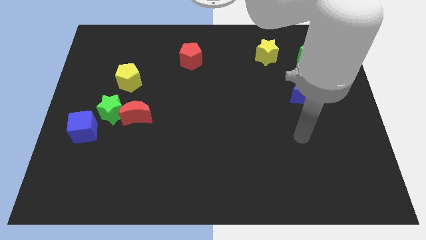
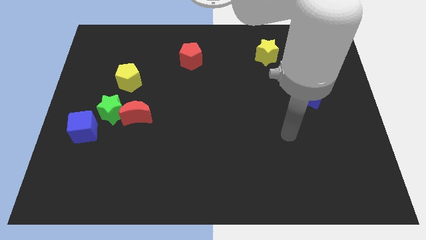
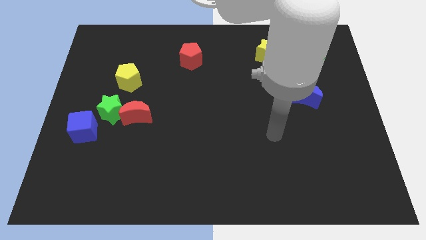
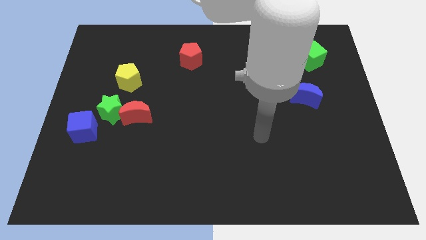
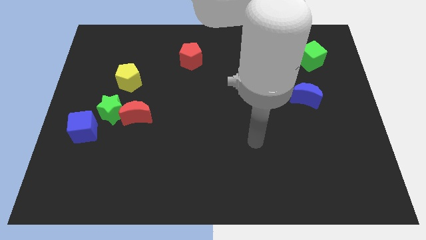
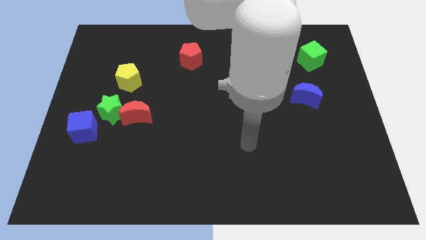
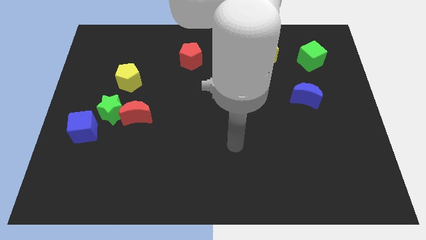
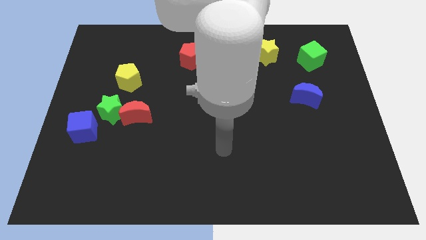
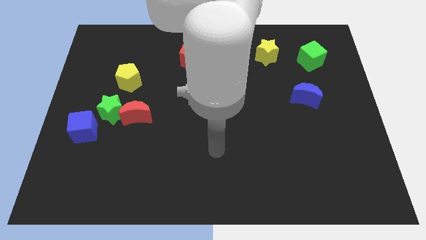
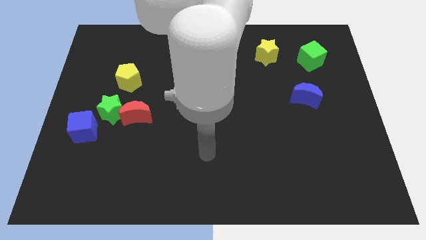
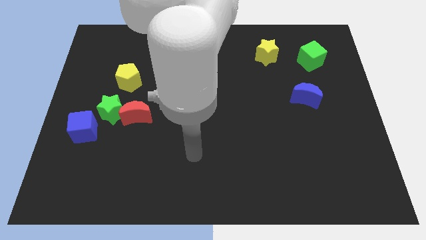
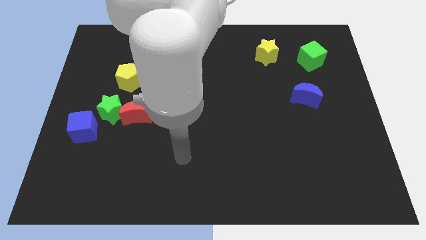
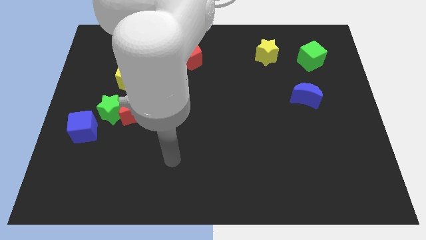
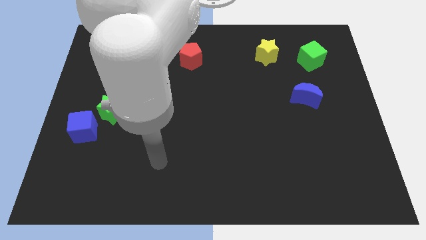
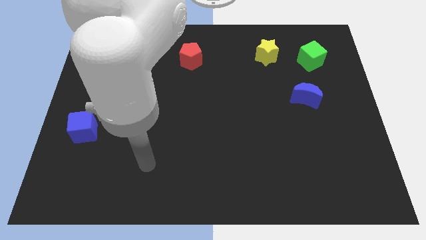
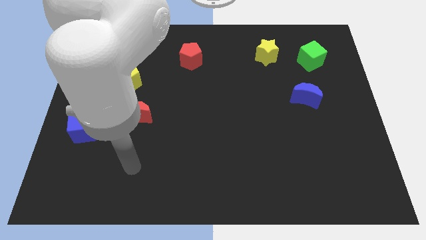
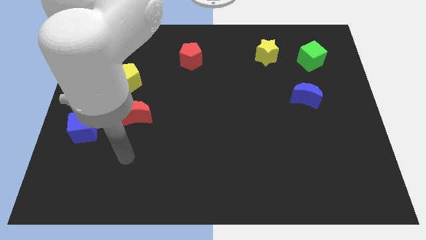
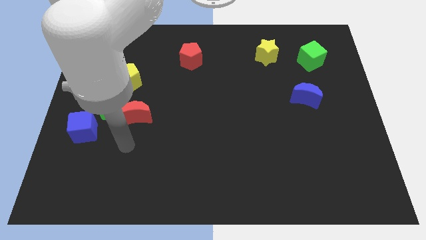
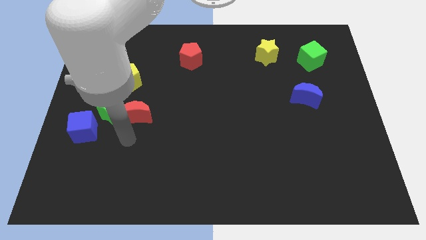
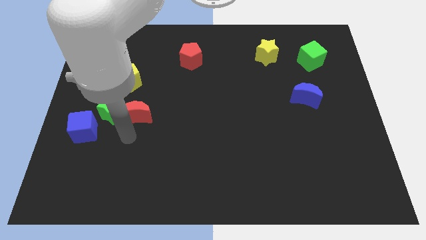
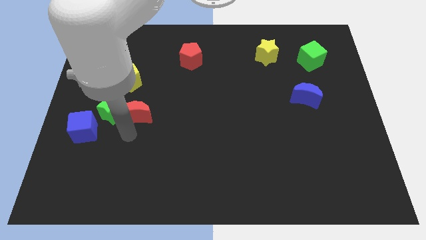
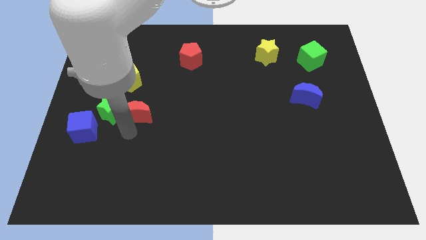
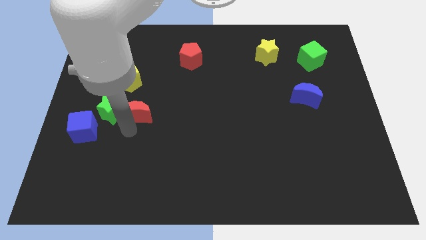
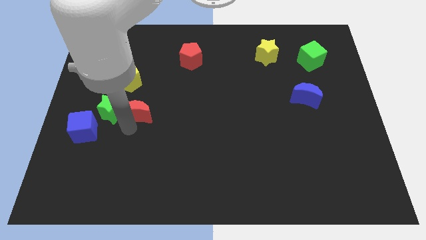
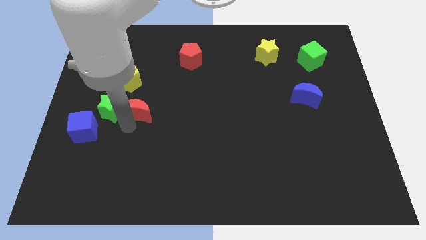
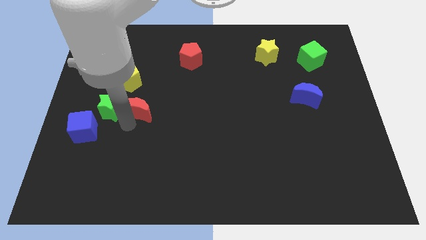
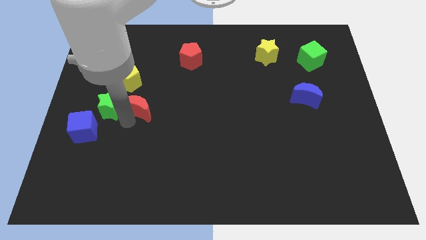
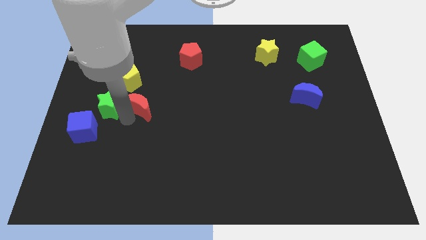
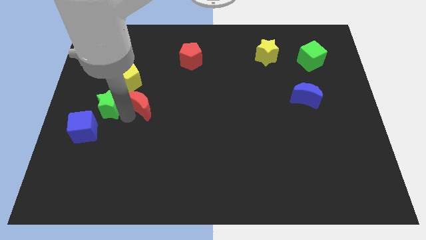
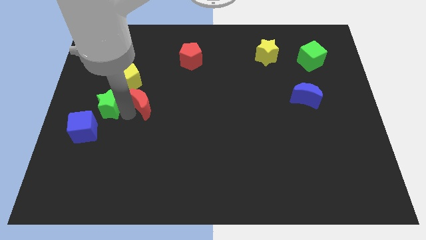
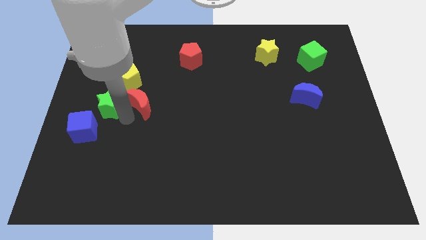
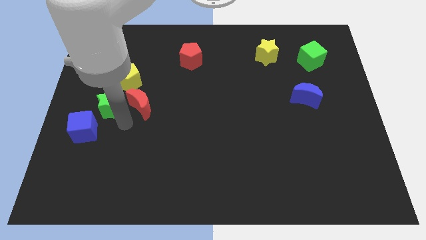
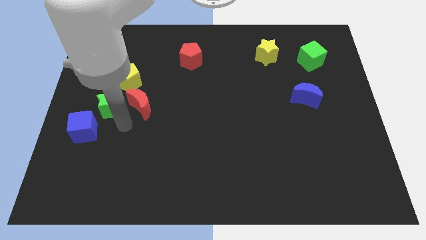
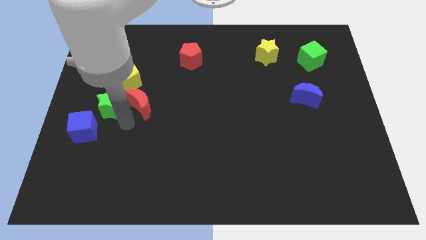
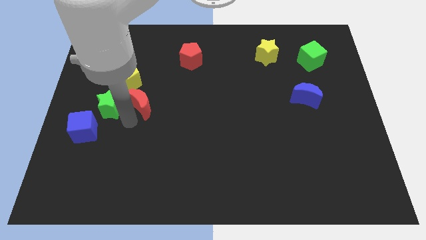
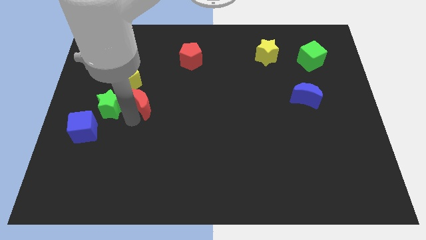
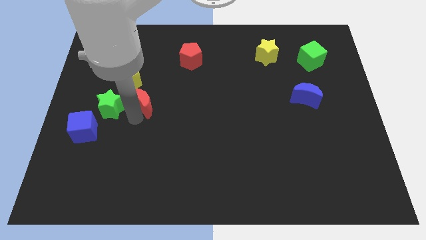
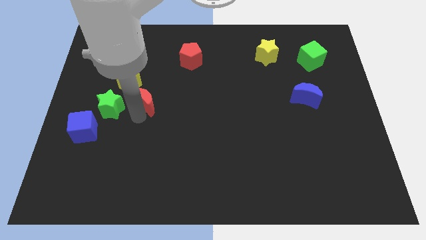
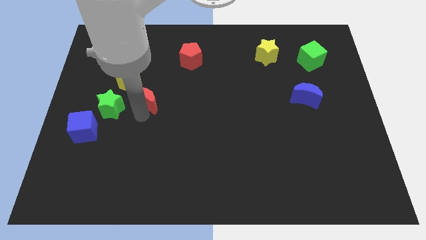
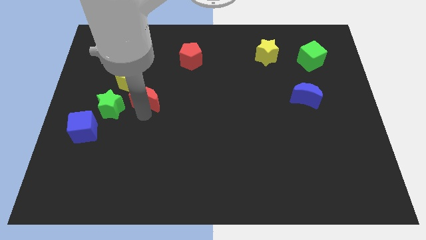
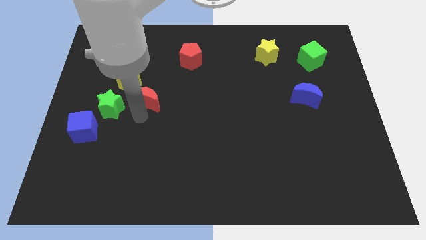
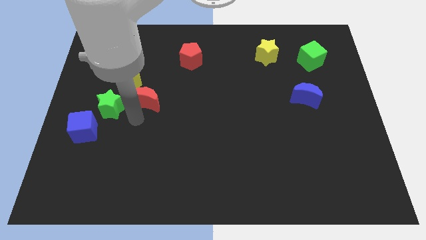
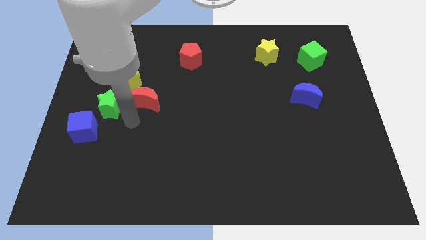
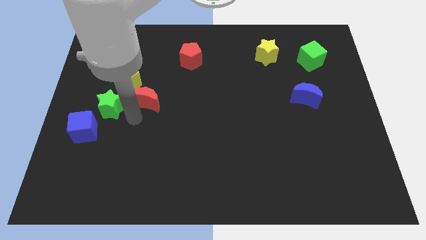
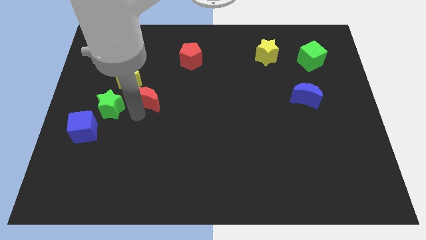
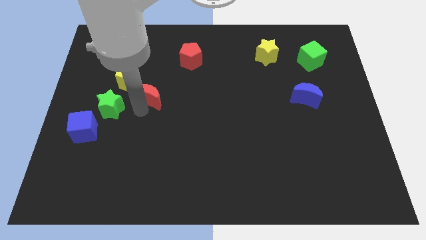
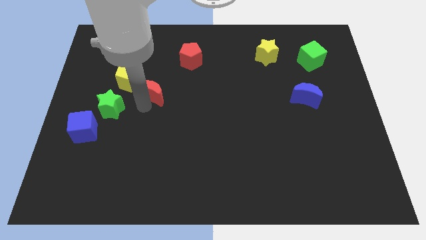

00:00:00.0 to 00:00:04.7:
slide the red moon right of the yellow pentagon

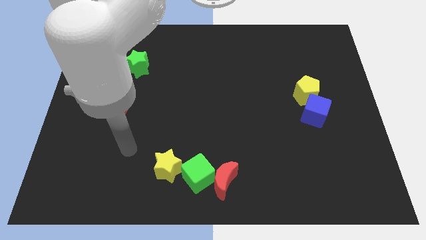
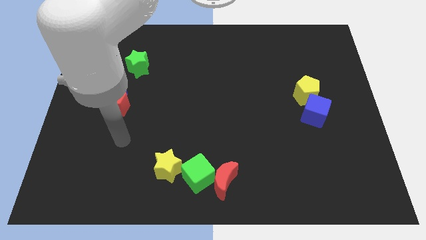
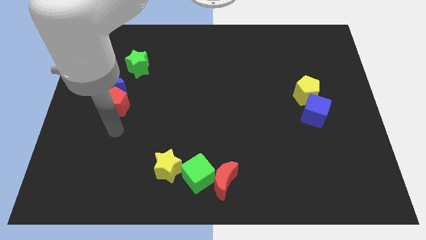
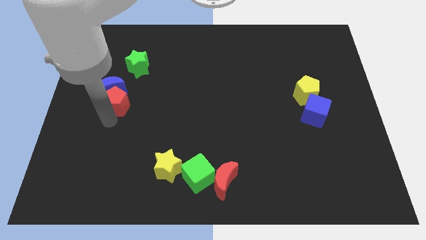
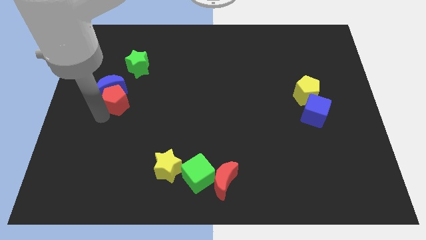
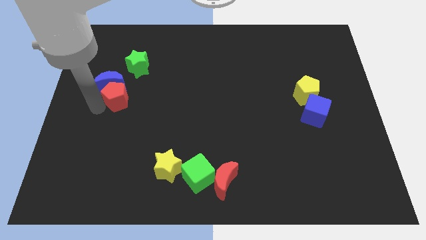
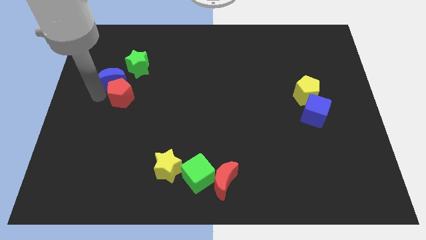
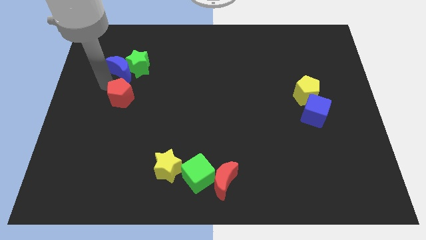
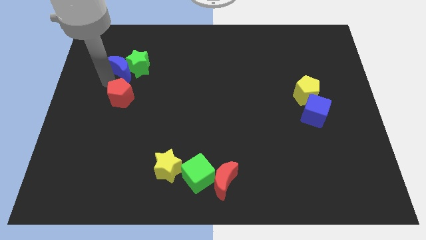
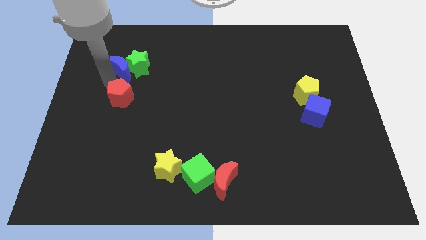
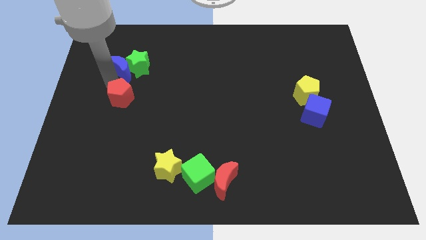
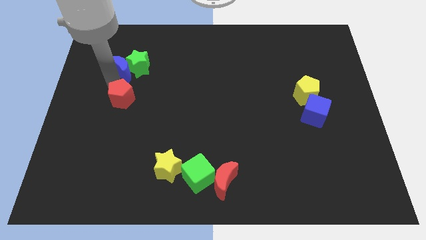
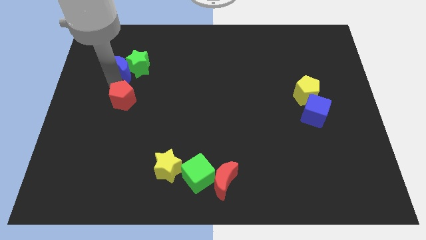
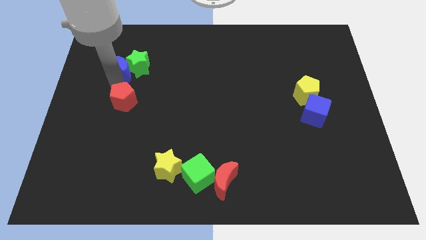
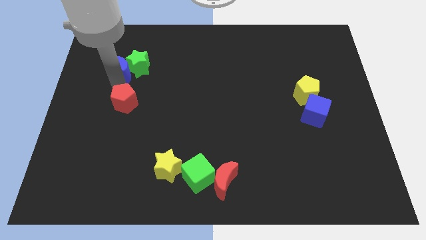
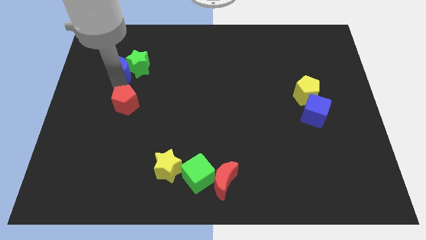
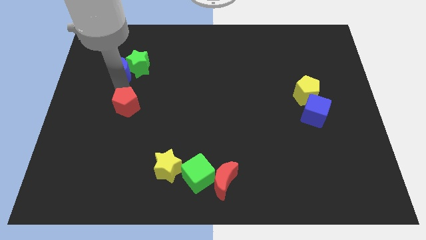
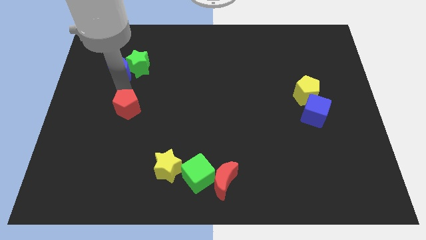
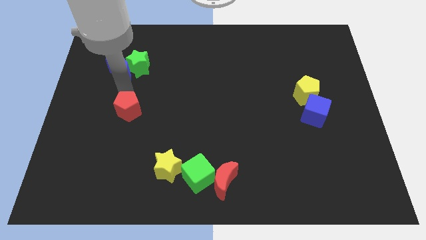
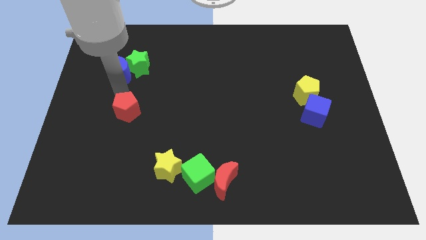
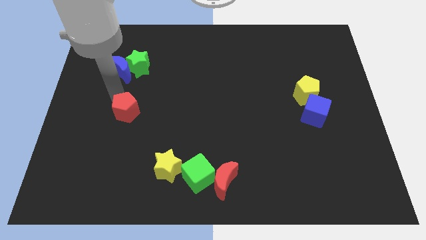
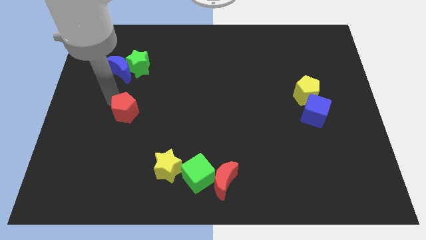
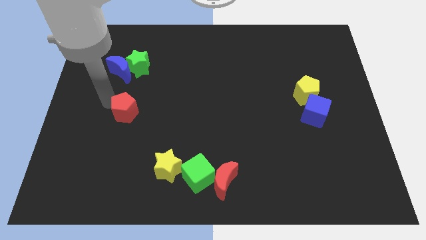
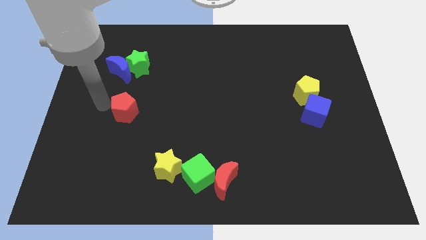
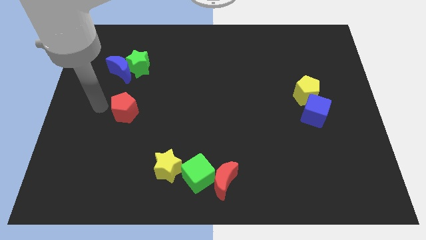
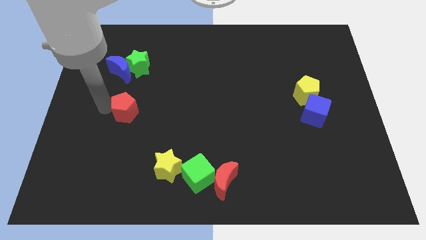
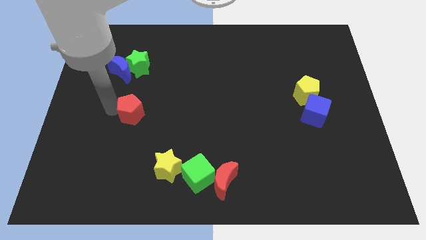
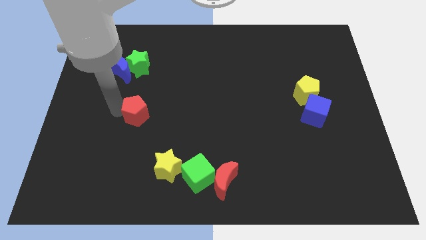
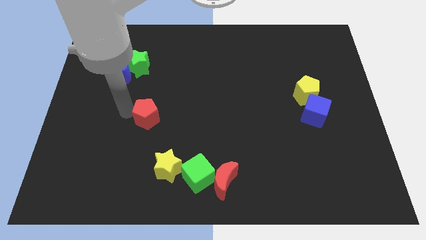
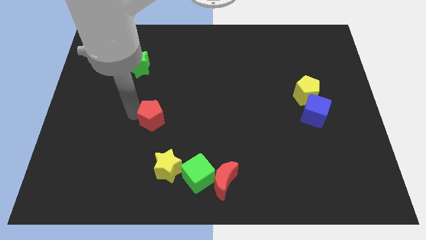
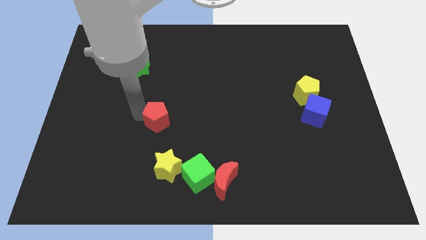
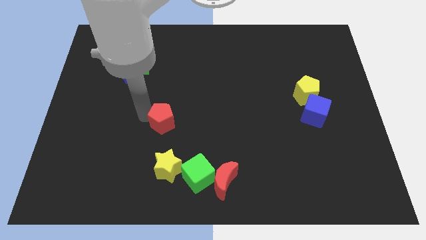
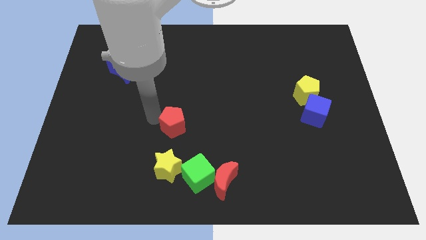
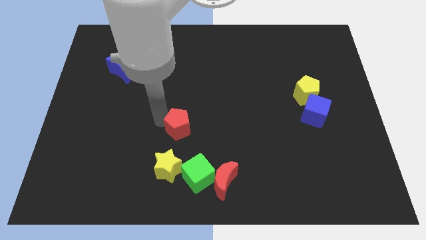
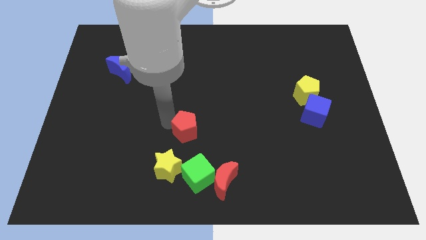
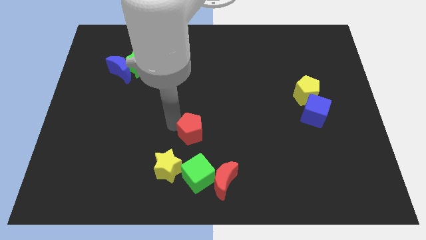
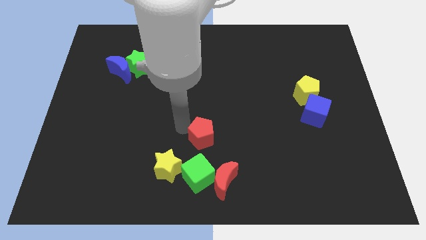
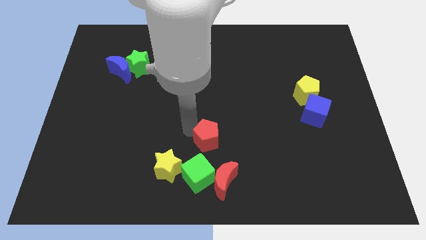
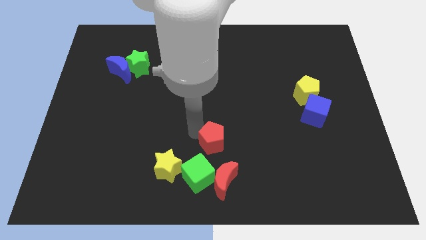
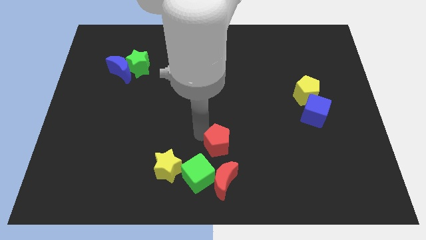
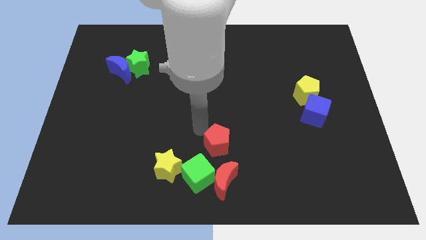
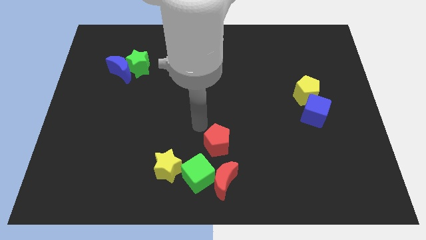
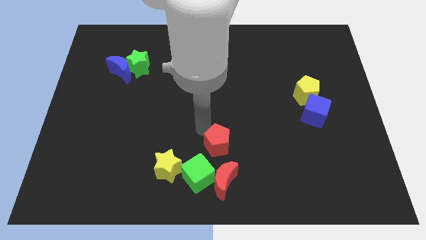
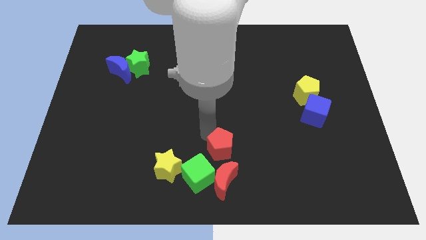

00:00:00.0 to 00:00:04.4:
push the red pentagon just right of the yellow star
